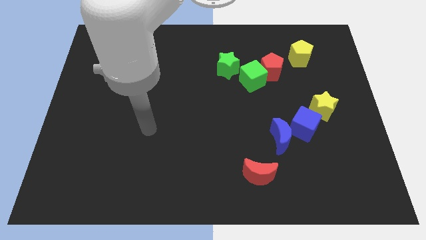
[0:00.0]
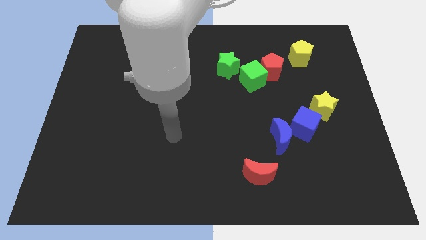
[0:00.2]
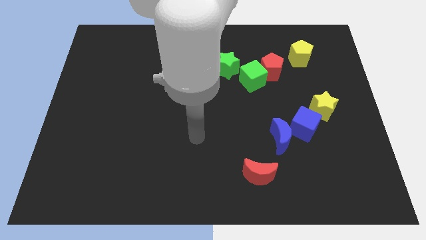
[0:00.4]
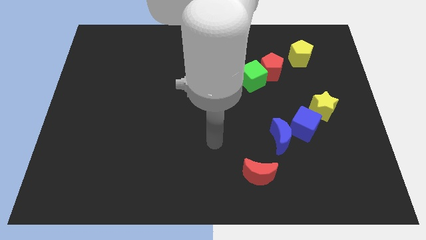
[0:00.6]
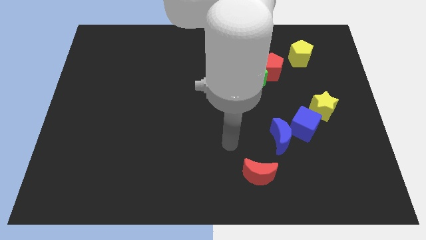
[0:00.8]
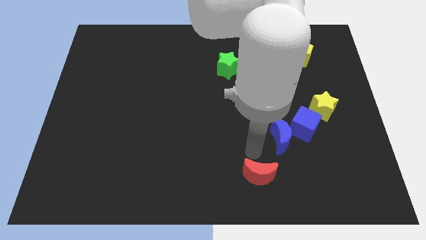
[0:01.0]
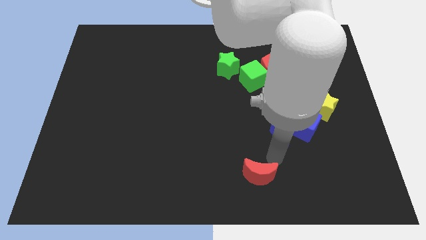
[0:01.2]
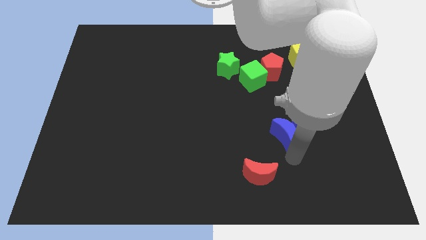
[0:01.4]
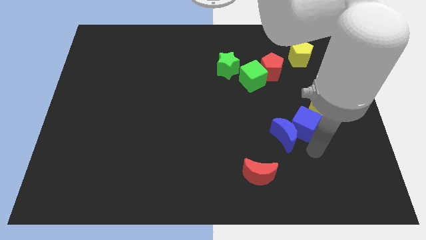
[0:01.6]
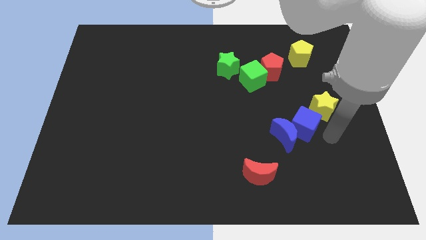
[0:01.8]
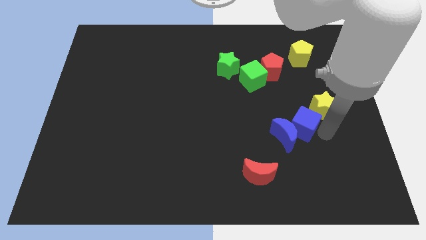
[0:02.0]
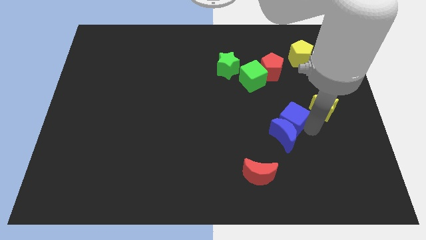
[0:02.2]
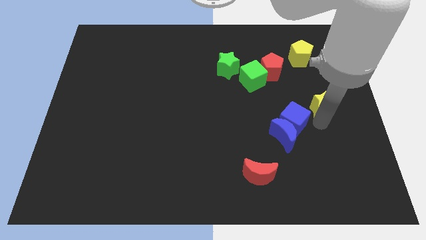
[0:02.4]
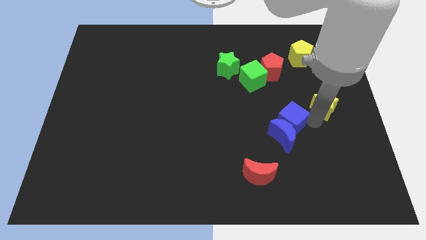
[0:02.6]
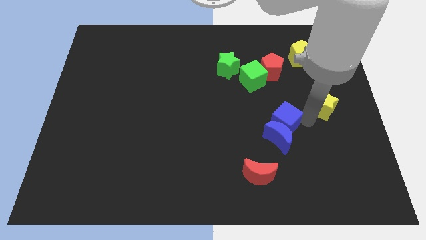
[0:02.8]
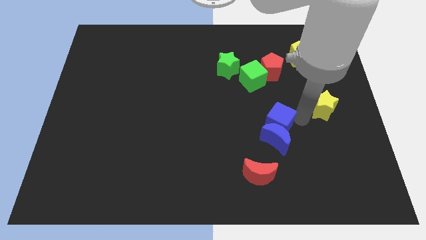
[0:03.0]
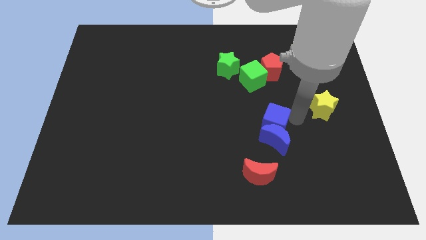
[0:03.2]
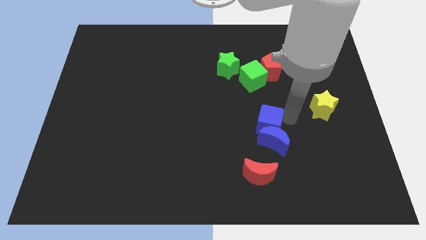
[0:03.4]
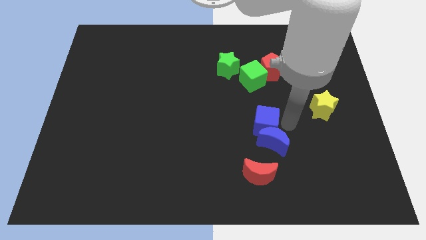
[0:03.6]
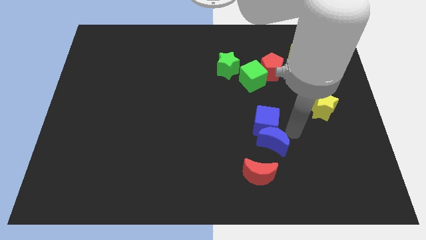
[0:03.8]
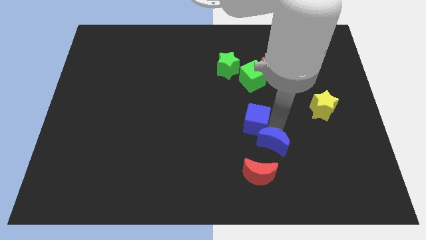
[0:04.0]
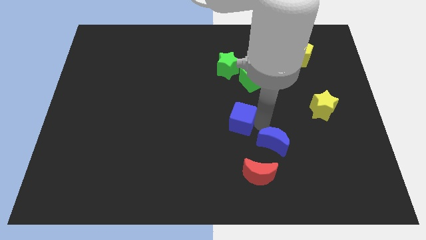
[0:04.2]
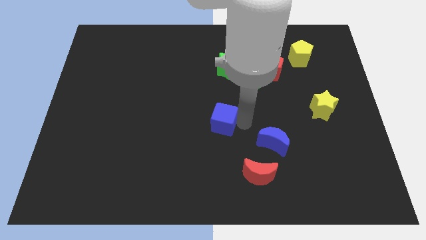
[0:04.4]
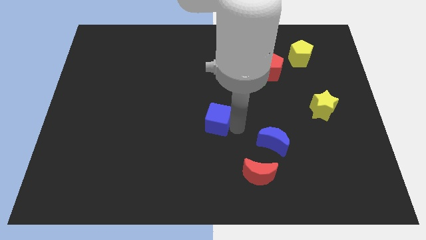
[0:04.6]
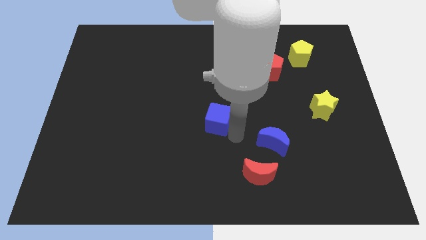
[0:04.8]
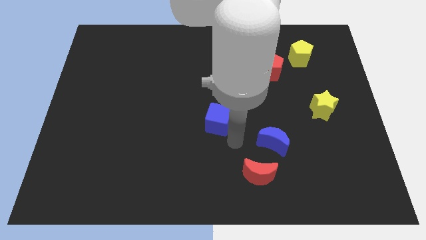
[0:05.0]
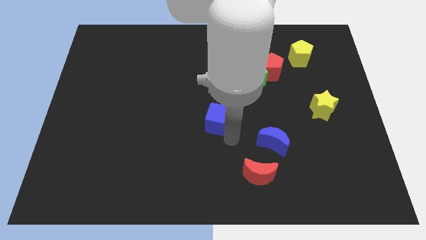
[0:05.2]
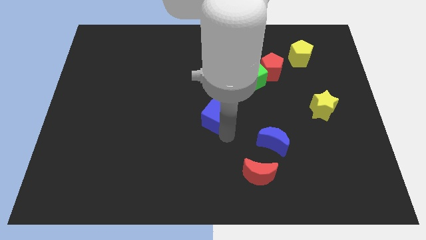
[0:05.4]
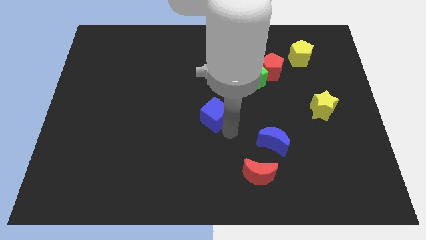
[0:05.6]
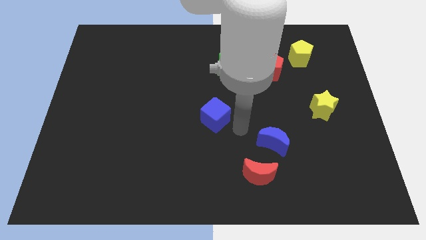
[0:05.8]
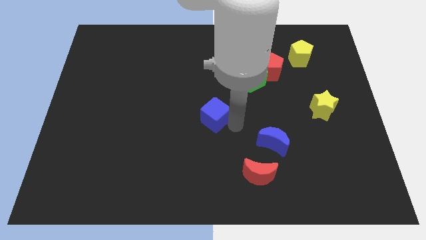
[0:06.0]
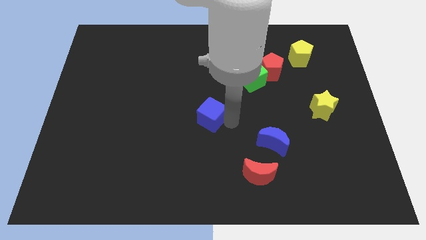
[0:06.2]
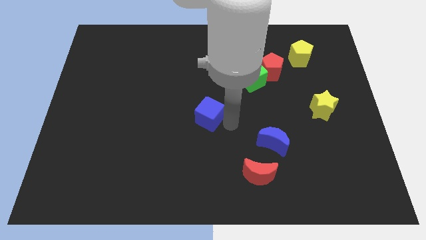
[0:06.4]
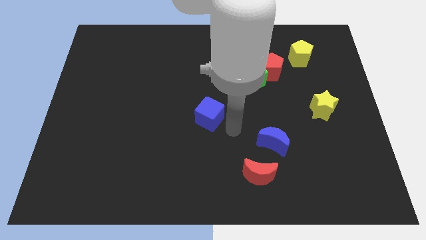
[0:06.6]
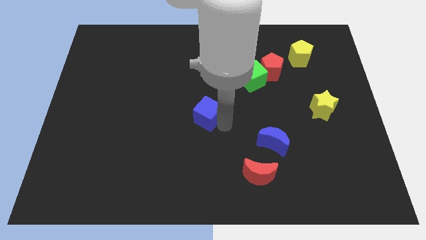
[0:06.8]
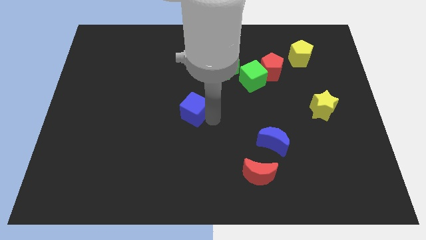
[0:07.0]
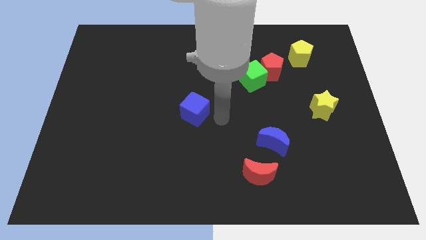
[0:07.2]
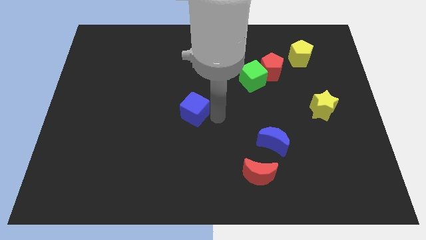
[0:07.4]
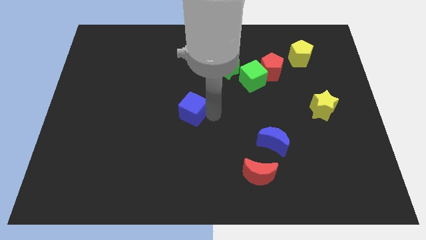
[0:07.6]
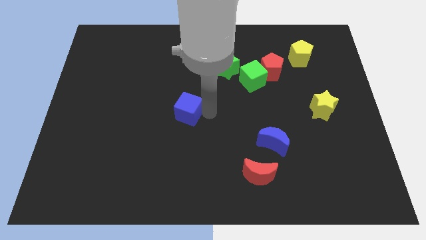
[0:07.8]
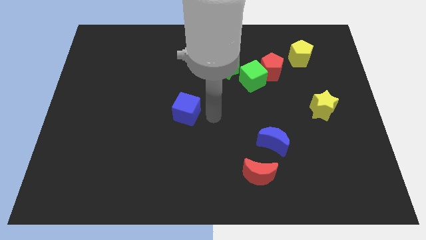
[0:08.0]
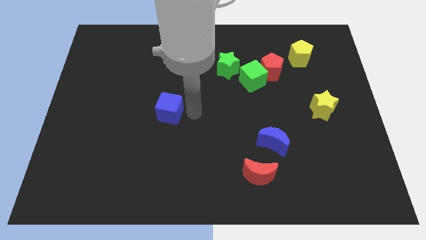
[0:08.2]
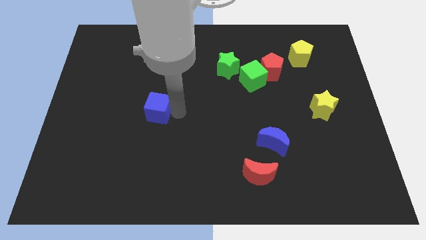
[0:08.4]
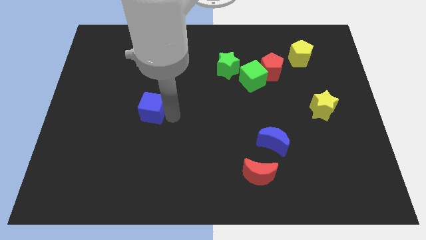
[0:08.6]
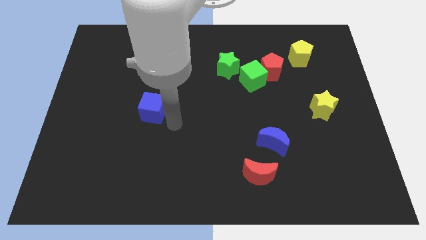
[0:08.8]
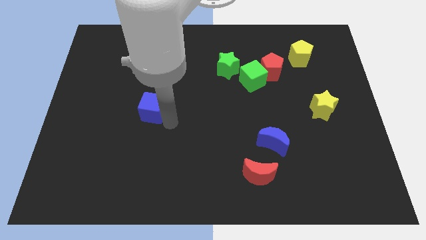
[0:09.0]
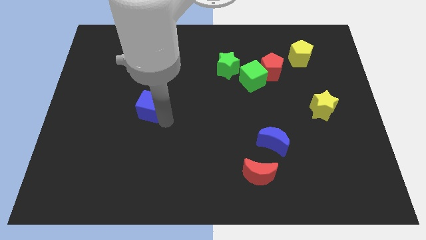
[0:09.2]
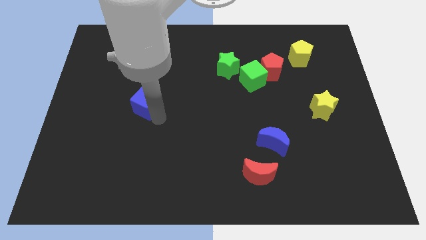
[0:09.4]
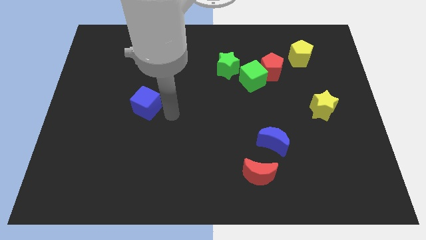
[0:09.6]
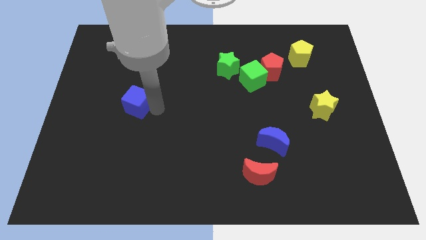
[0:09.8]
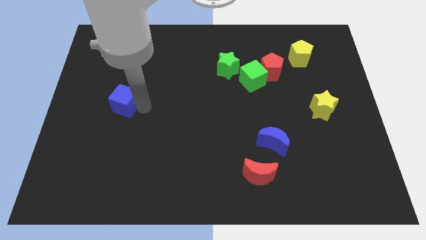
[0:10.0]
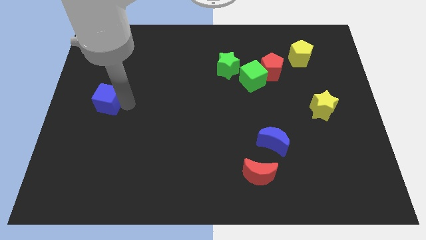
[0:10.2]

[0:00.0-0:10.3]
put the blue cube to the center left

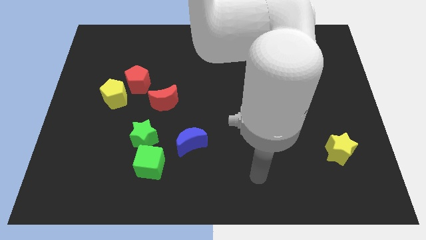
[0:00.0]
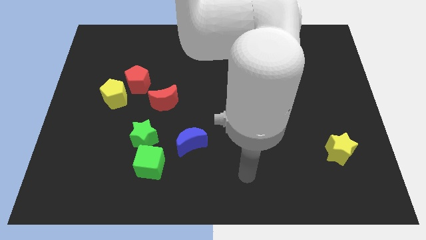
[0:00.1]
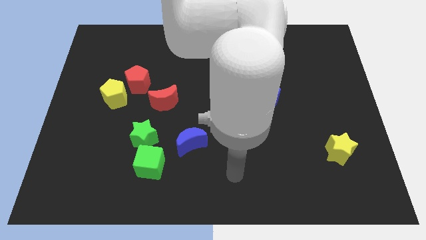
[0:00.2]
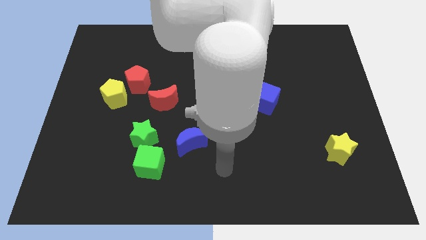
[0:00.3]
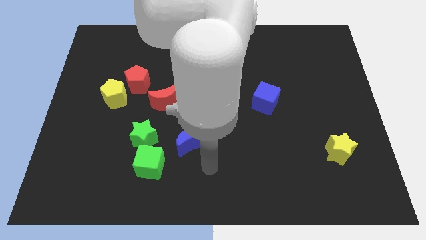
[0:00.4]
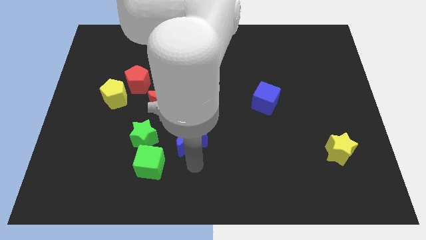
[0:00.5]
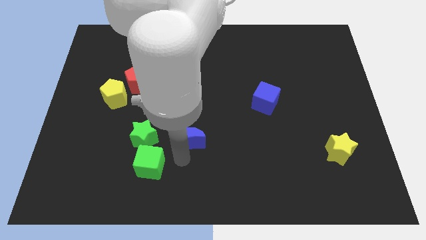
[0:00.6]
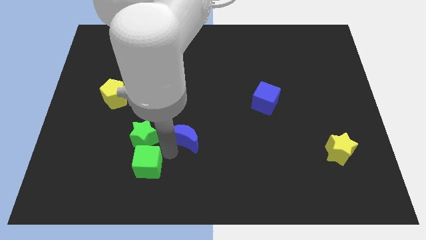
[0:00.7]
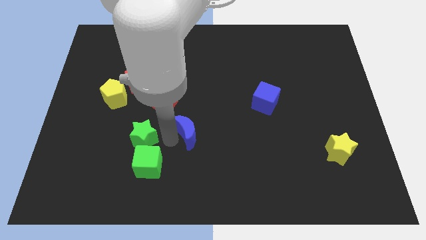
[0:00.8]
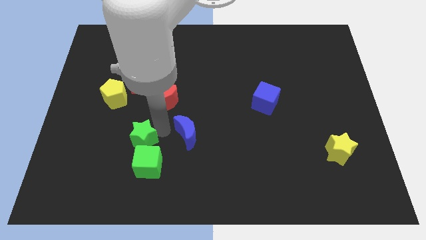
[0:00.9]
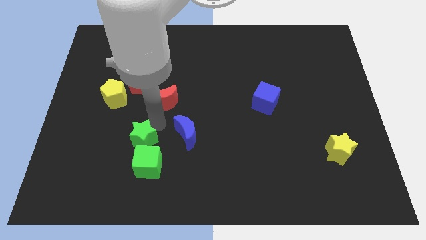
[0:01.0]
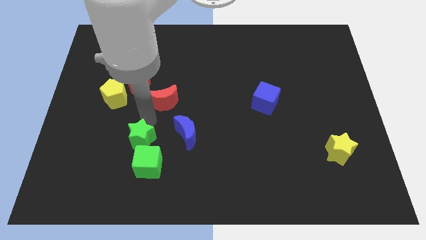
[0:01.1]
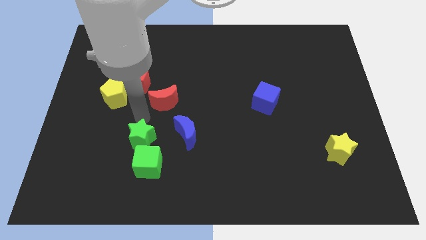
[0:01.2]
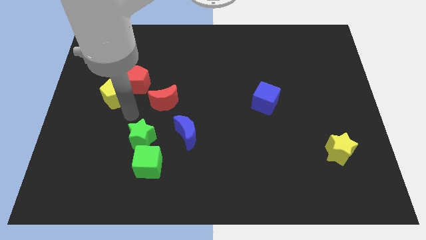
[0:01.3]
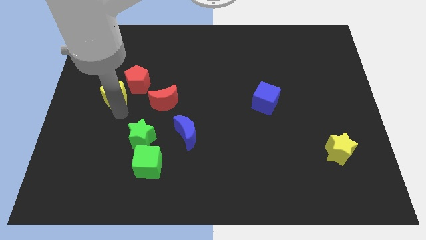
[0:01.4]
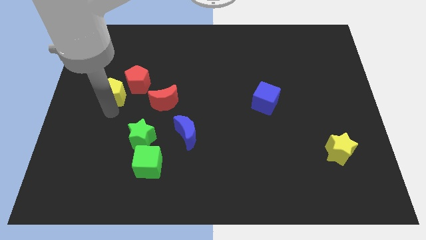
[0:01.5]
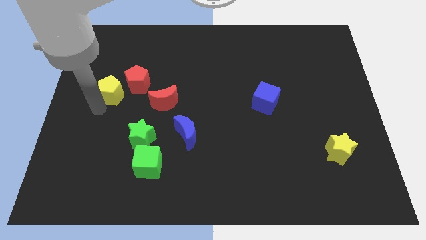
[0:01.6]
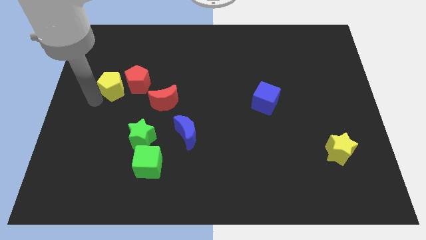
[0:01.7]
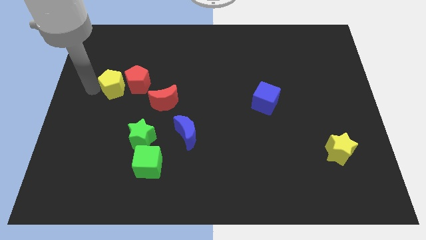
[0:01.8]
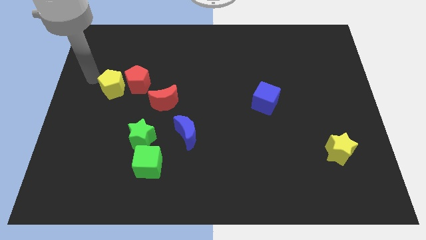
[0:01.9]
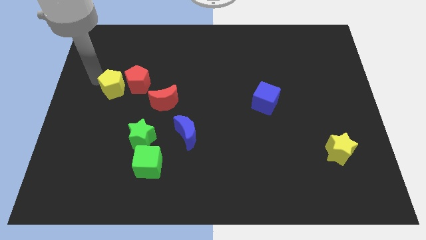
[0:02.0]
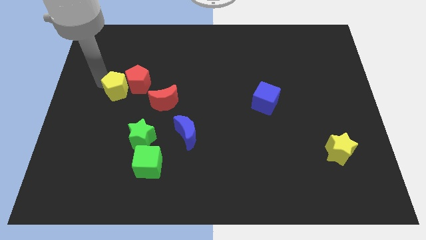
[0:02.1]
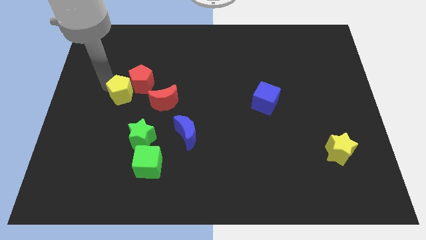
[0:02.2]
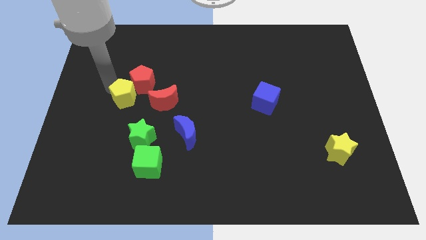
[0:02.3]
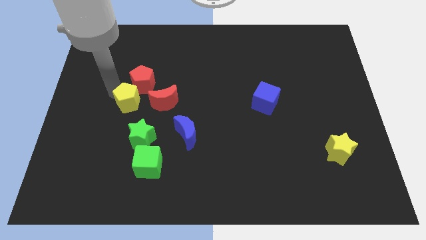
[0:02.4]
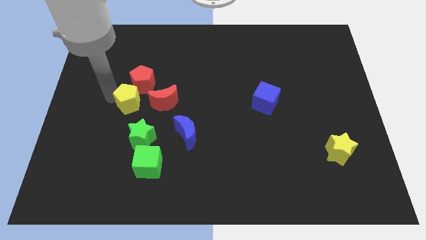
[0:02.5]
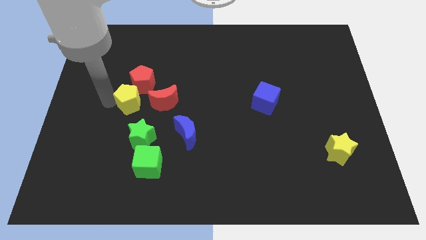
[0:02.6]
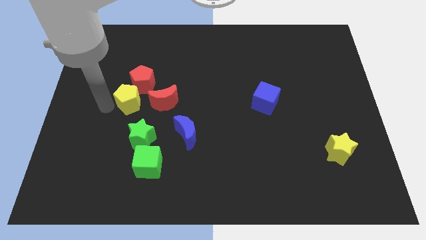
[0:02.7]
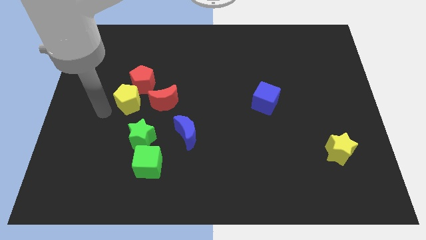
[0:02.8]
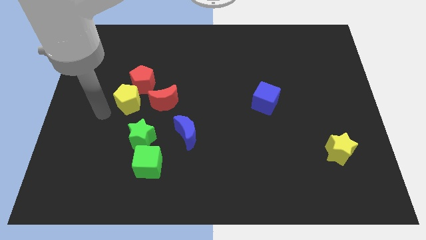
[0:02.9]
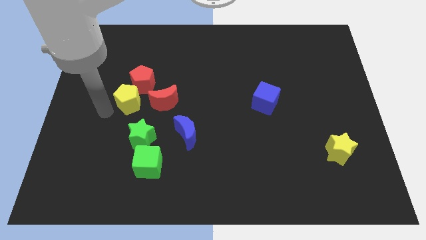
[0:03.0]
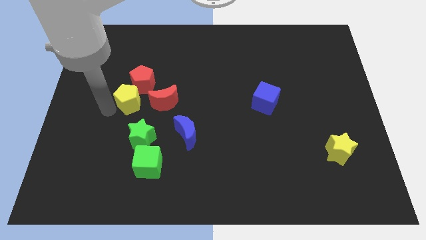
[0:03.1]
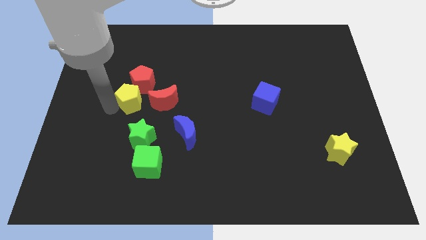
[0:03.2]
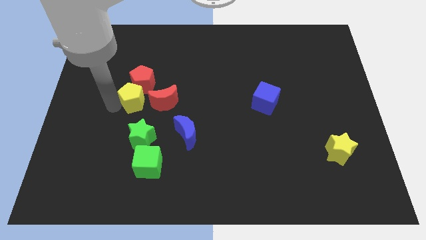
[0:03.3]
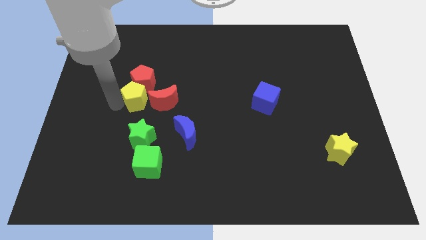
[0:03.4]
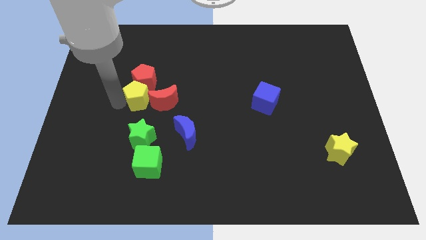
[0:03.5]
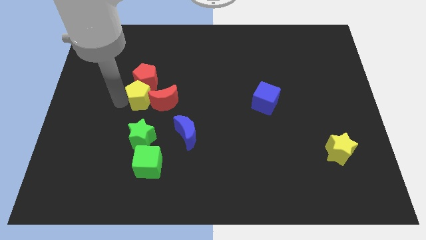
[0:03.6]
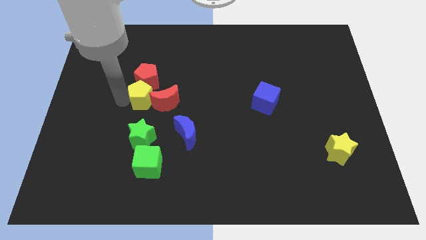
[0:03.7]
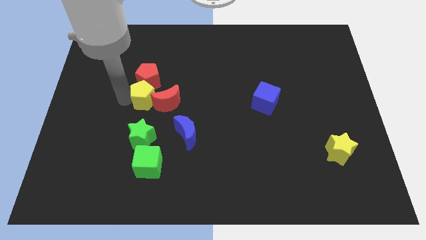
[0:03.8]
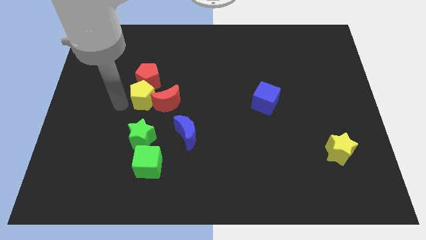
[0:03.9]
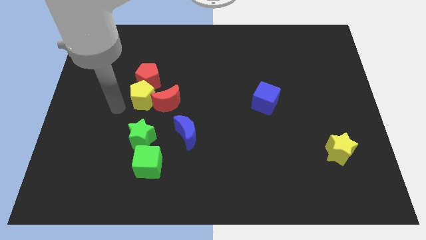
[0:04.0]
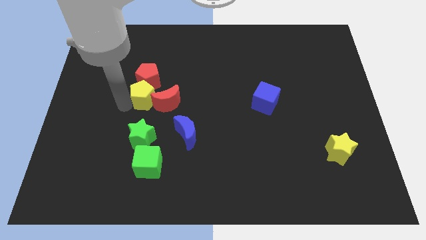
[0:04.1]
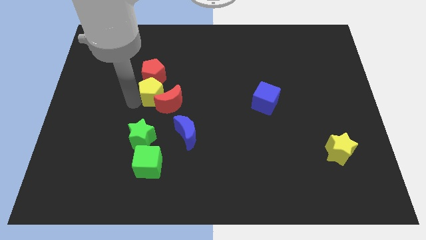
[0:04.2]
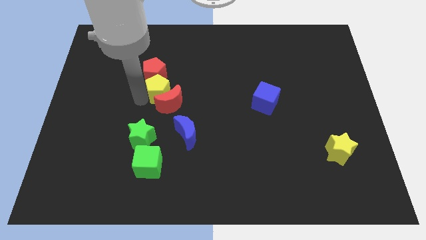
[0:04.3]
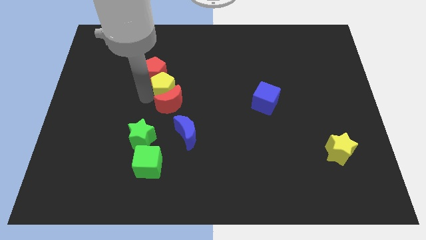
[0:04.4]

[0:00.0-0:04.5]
move the yellow pentagon to the center of the board
